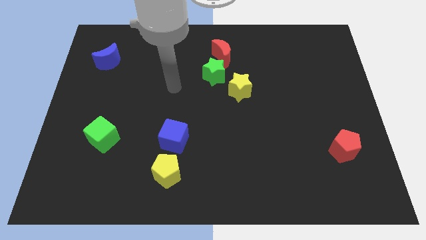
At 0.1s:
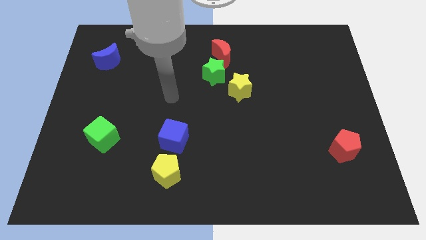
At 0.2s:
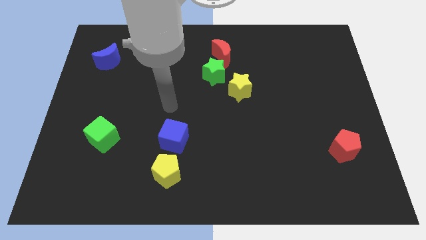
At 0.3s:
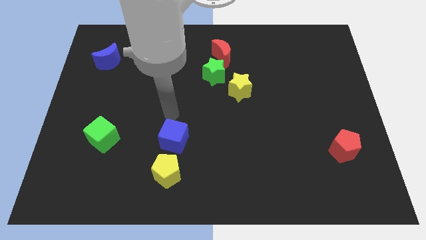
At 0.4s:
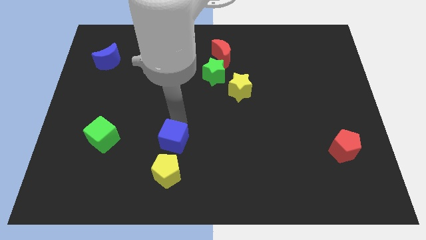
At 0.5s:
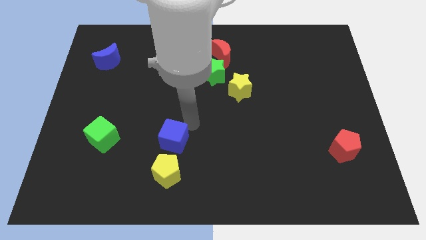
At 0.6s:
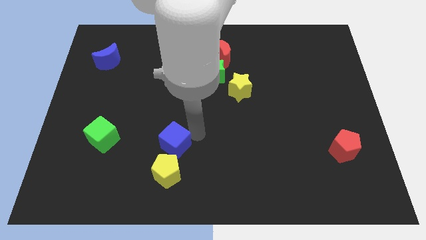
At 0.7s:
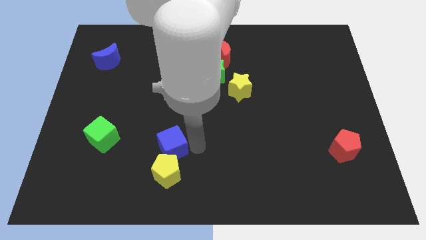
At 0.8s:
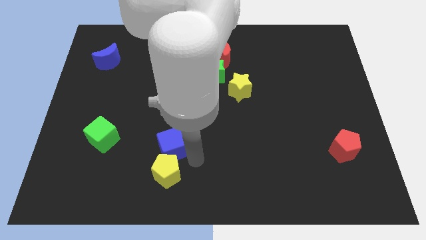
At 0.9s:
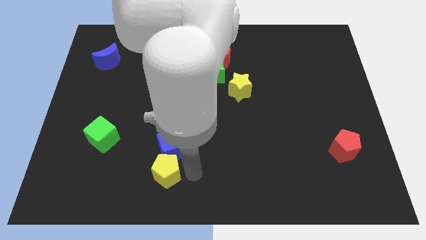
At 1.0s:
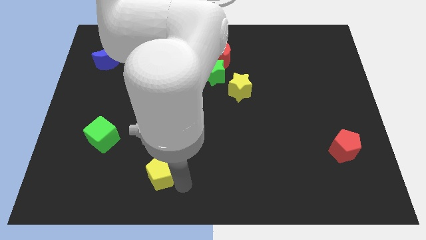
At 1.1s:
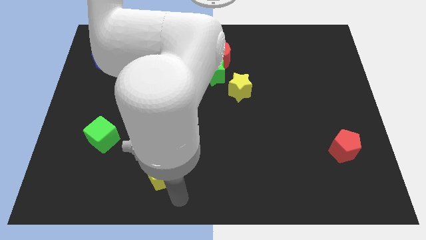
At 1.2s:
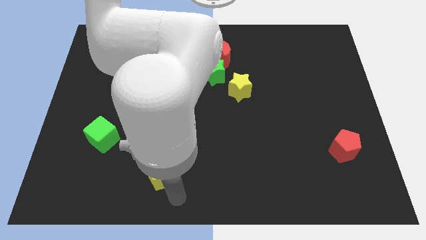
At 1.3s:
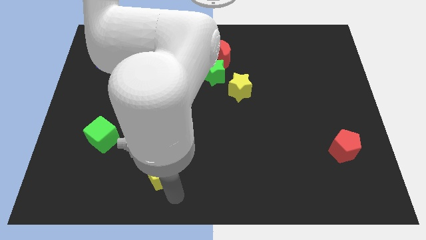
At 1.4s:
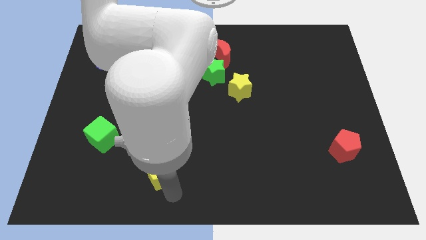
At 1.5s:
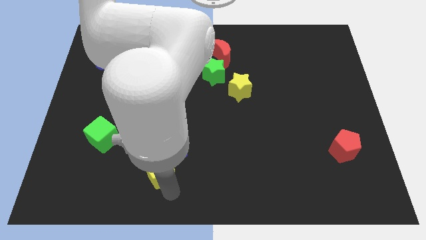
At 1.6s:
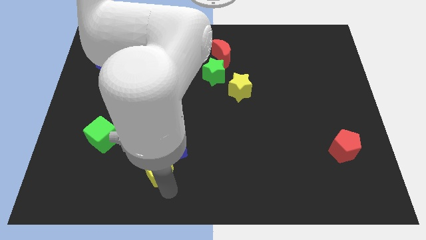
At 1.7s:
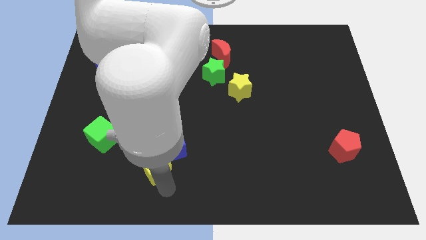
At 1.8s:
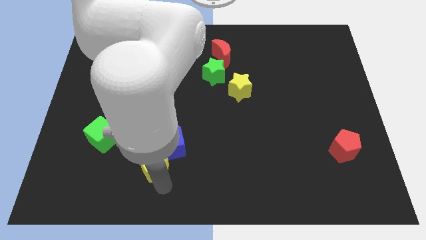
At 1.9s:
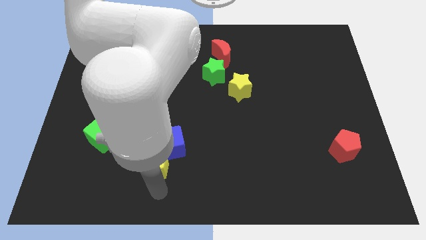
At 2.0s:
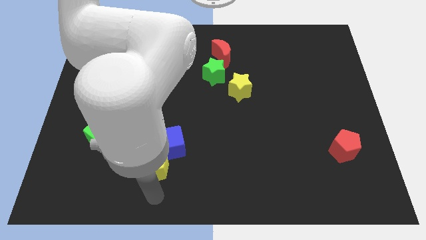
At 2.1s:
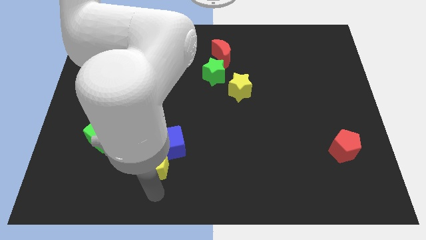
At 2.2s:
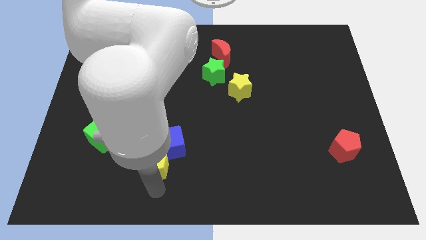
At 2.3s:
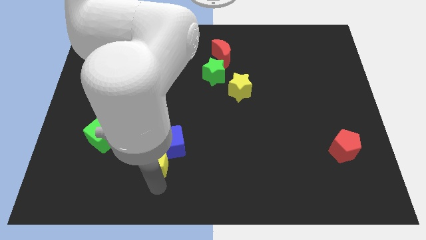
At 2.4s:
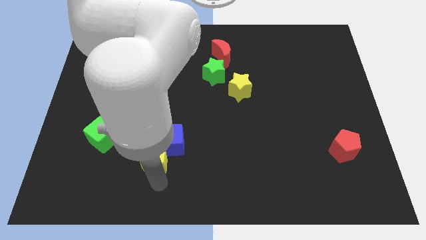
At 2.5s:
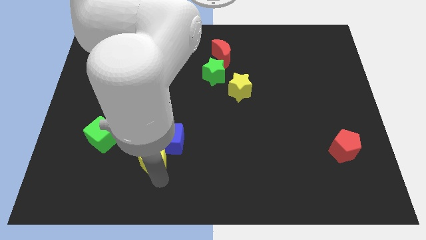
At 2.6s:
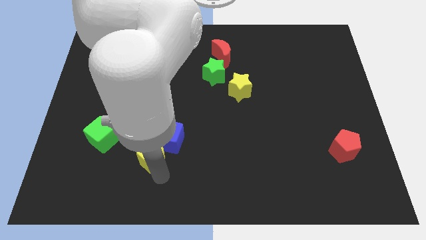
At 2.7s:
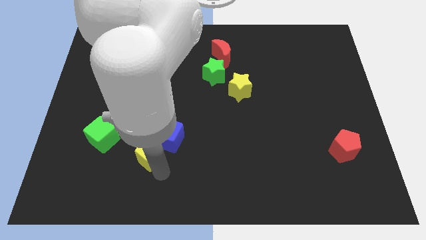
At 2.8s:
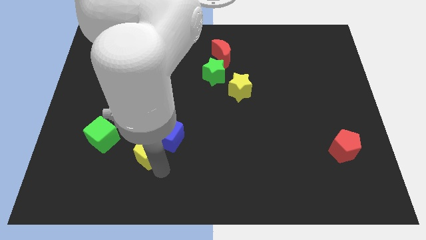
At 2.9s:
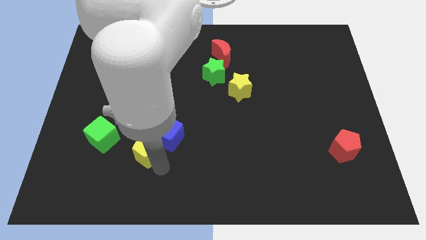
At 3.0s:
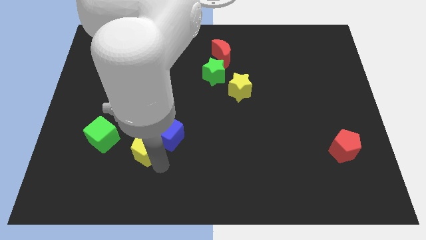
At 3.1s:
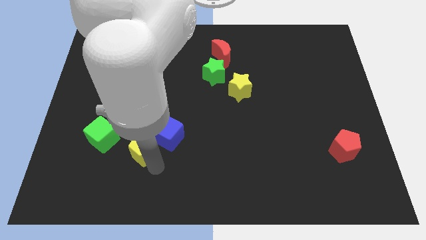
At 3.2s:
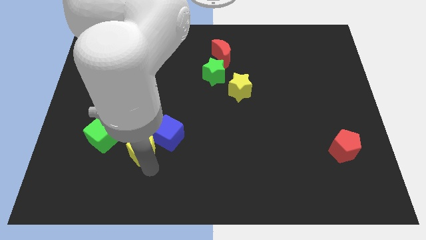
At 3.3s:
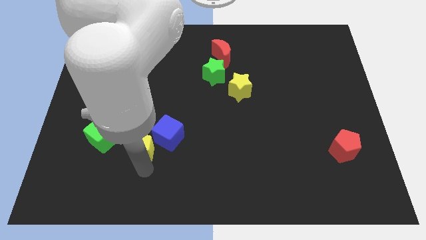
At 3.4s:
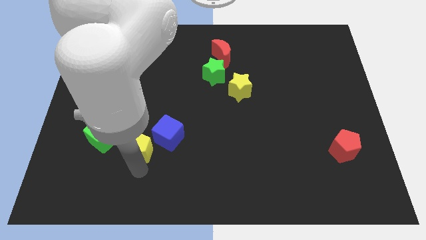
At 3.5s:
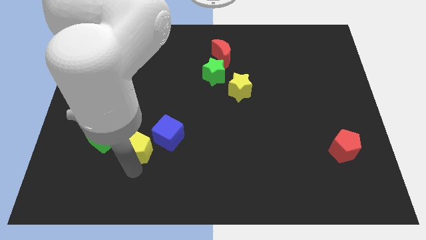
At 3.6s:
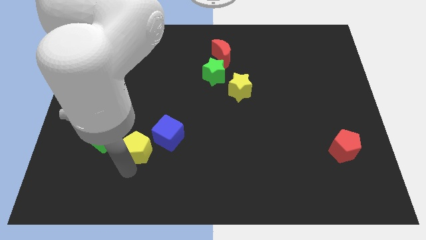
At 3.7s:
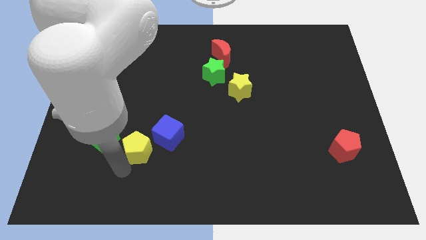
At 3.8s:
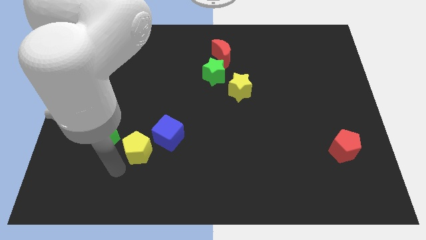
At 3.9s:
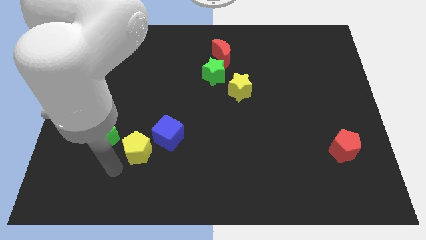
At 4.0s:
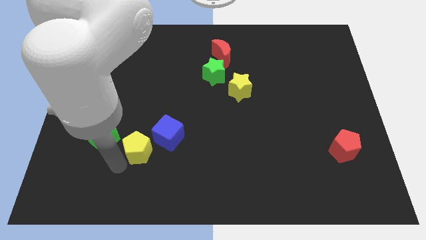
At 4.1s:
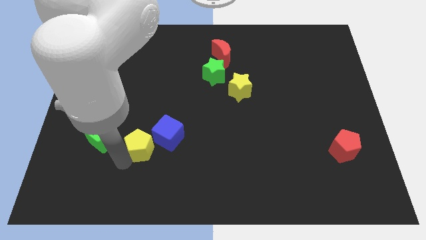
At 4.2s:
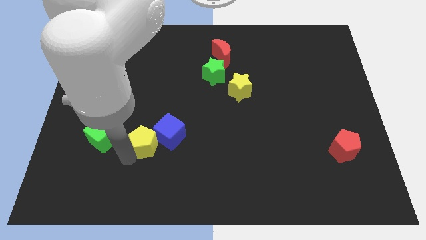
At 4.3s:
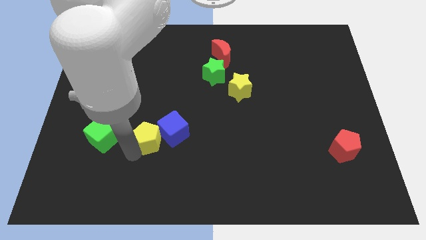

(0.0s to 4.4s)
move the yellow pentagon upwards a bit

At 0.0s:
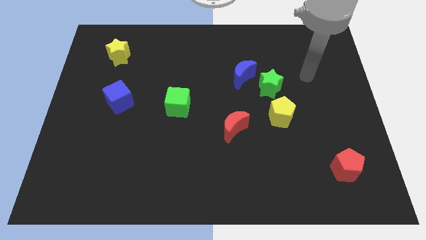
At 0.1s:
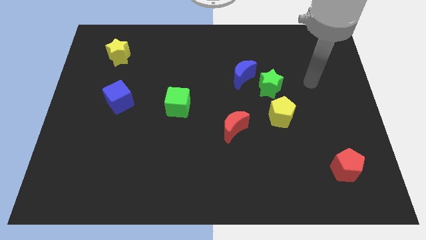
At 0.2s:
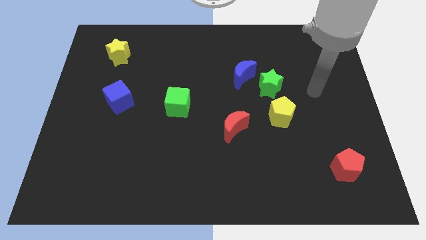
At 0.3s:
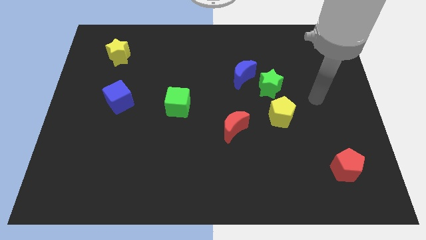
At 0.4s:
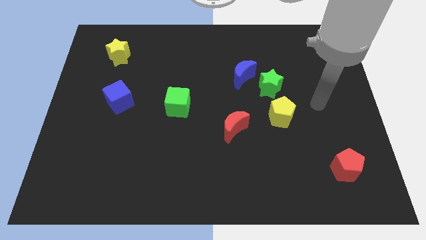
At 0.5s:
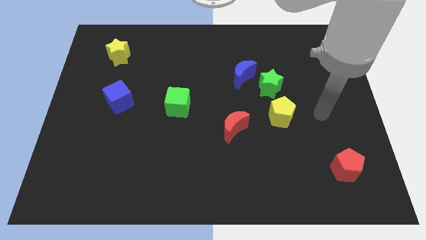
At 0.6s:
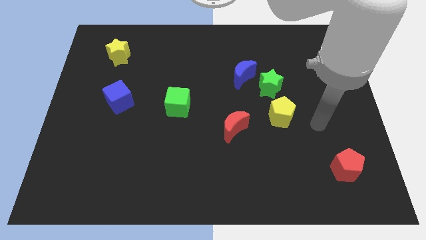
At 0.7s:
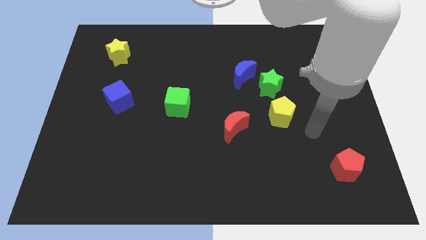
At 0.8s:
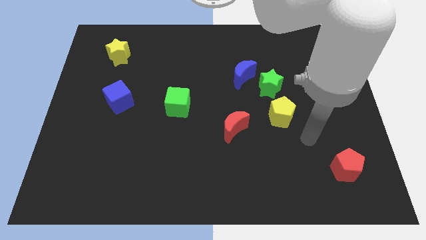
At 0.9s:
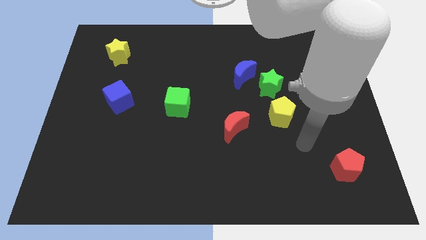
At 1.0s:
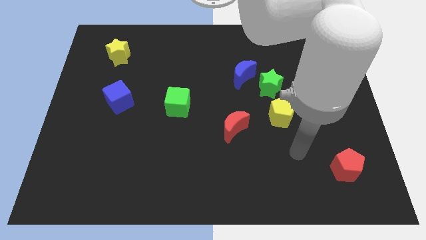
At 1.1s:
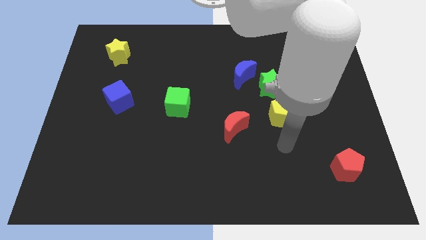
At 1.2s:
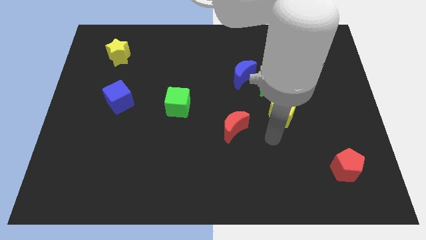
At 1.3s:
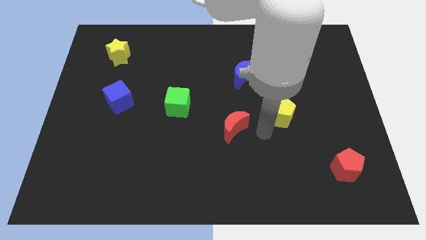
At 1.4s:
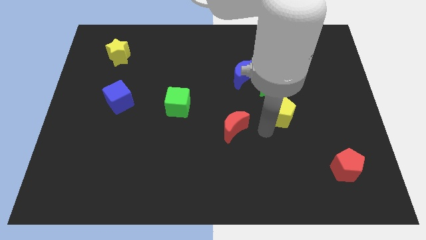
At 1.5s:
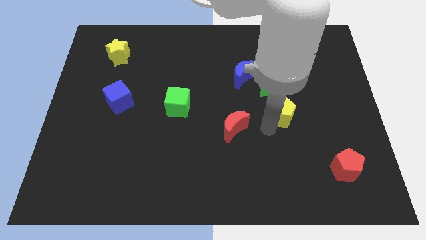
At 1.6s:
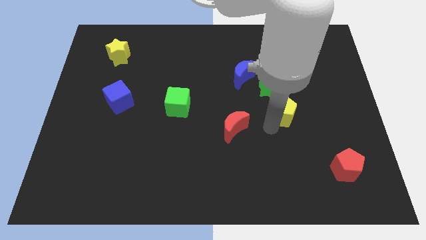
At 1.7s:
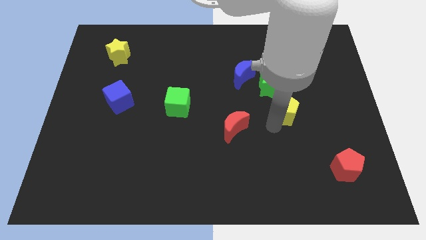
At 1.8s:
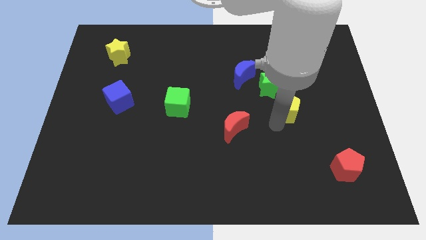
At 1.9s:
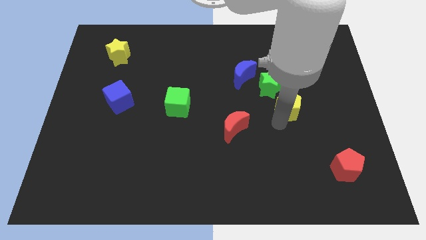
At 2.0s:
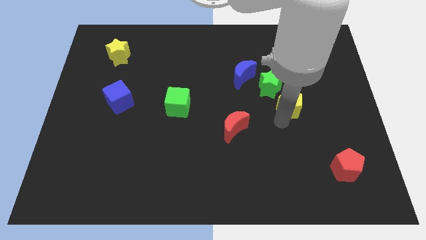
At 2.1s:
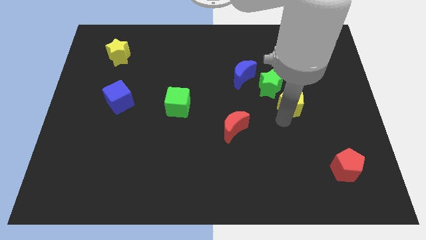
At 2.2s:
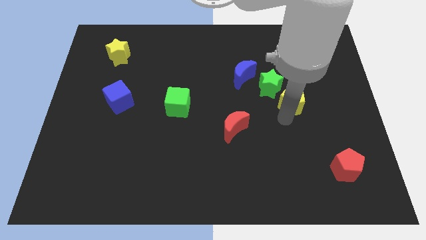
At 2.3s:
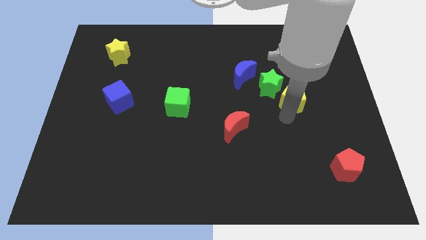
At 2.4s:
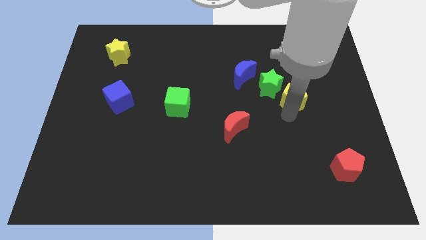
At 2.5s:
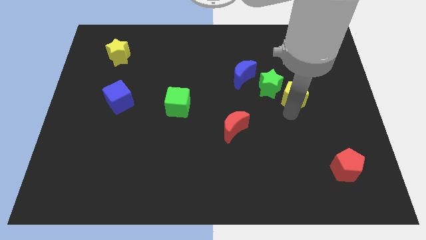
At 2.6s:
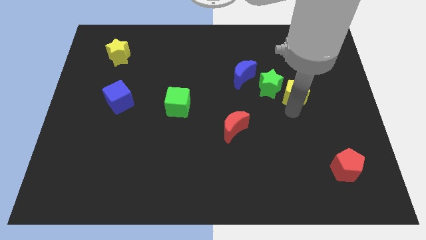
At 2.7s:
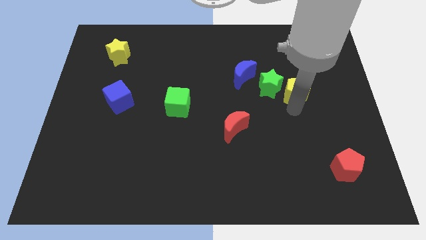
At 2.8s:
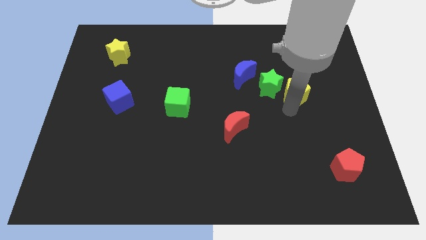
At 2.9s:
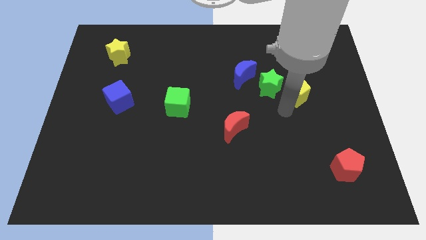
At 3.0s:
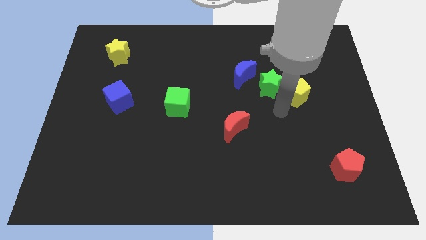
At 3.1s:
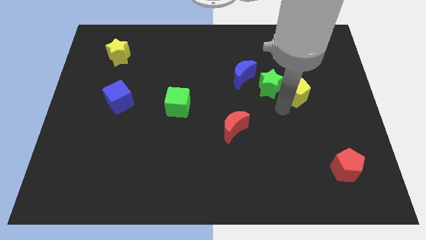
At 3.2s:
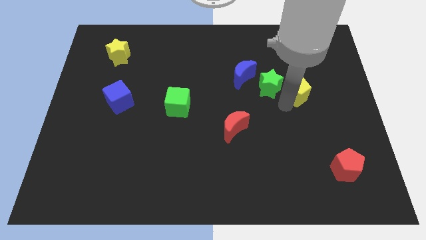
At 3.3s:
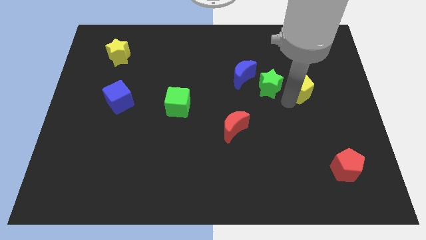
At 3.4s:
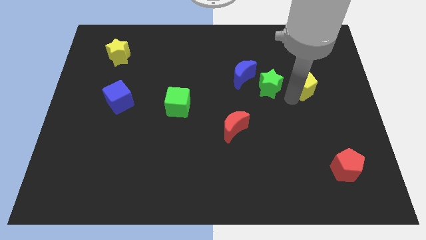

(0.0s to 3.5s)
push the yellow pentagon slightly upwards

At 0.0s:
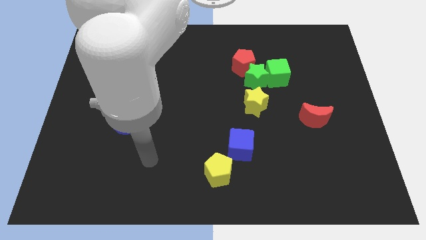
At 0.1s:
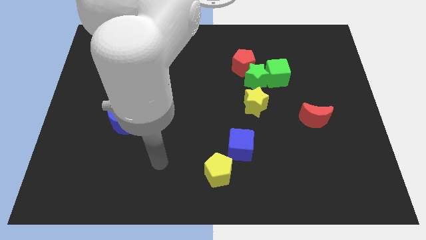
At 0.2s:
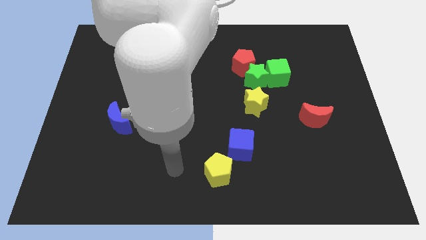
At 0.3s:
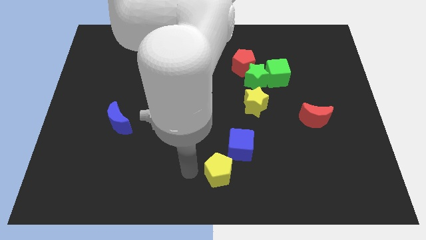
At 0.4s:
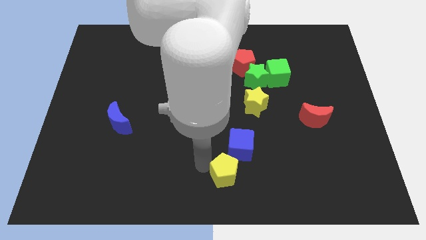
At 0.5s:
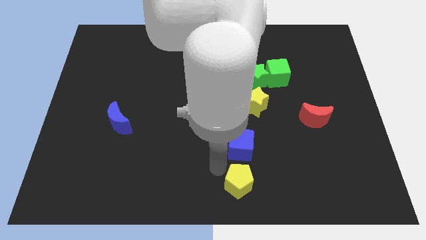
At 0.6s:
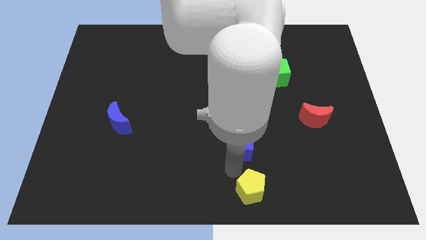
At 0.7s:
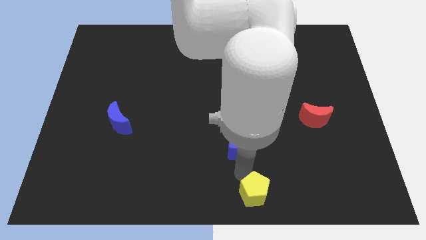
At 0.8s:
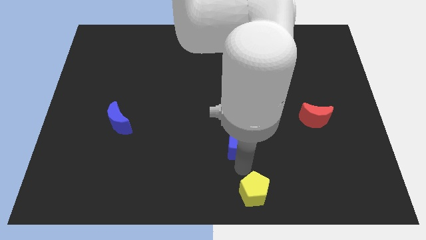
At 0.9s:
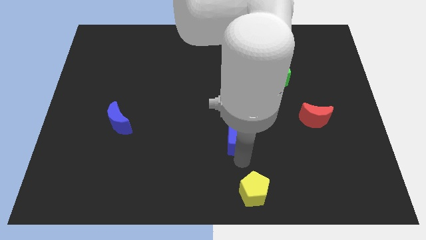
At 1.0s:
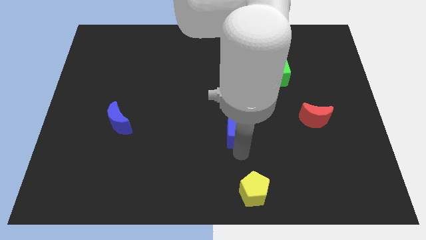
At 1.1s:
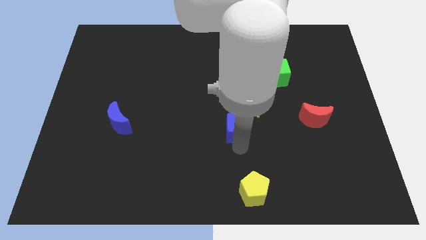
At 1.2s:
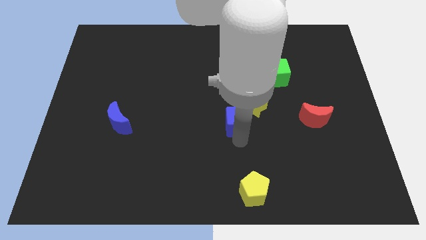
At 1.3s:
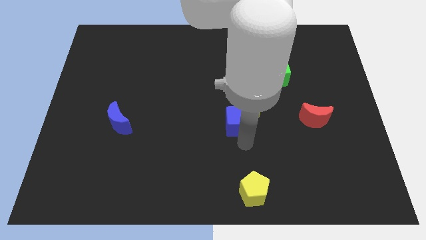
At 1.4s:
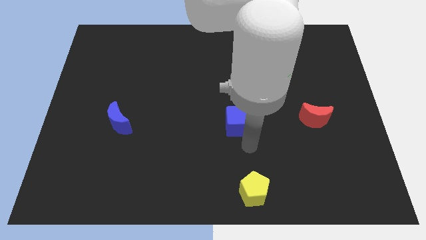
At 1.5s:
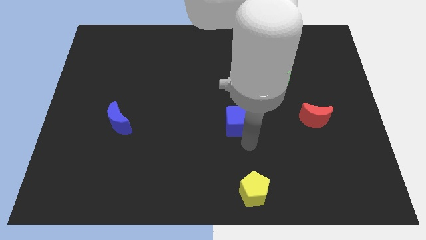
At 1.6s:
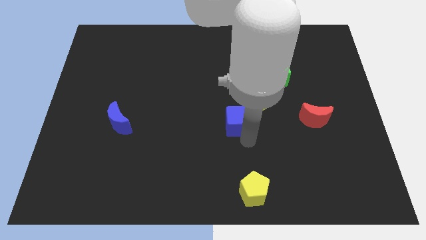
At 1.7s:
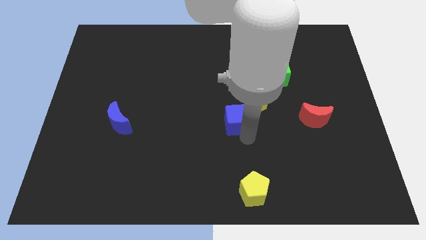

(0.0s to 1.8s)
slide the blue cube somewhat up
